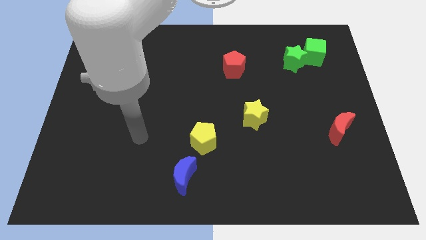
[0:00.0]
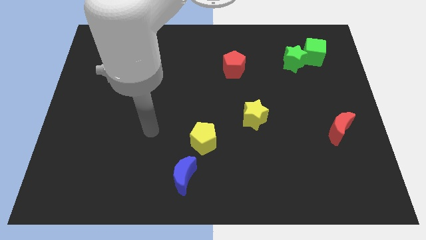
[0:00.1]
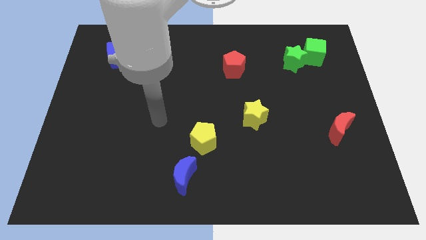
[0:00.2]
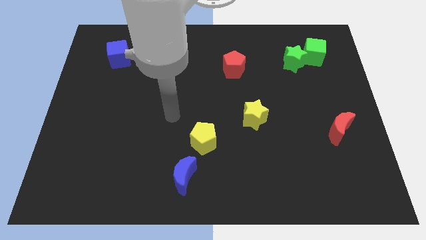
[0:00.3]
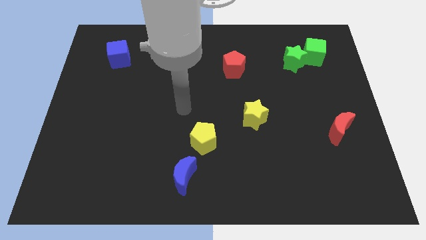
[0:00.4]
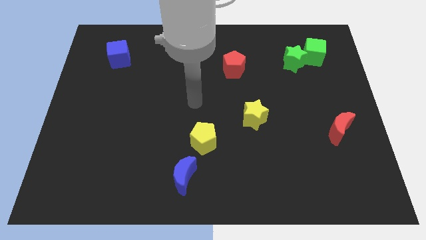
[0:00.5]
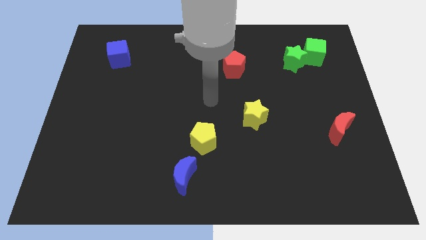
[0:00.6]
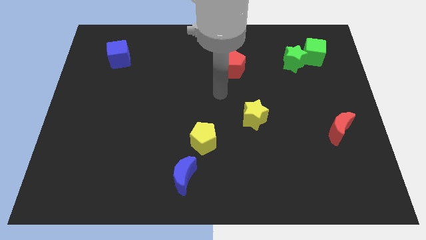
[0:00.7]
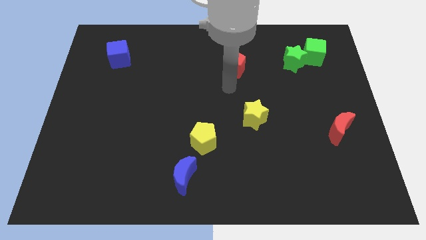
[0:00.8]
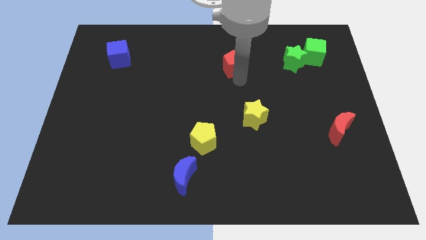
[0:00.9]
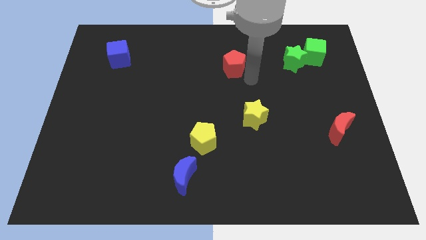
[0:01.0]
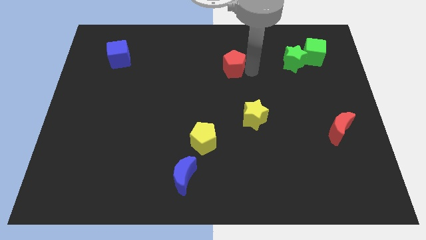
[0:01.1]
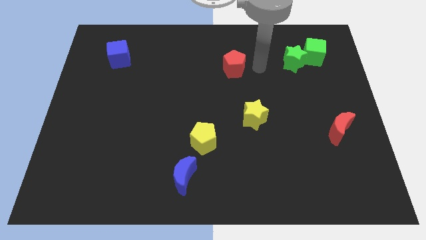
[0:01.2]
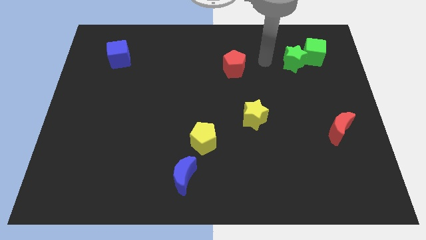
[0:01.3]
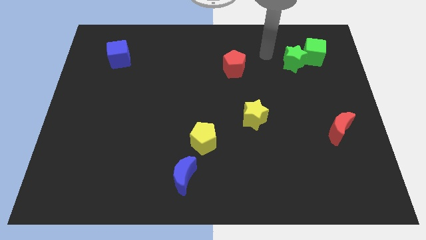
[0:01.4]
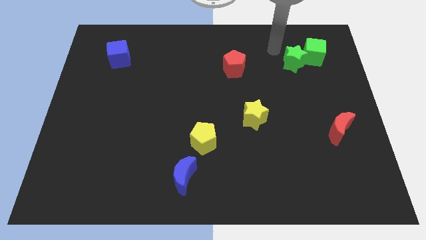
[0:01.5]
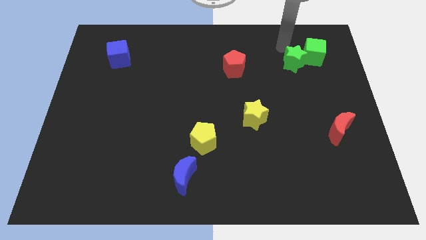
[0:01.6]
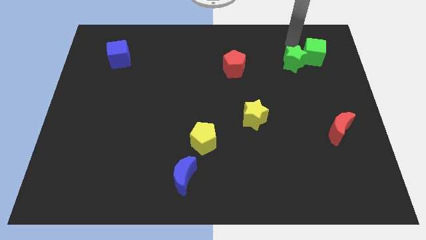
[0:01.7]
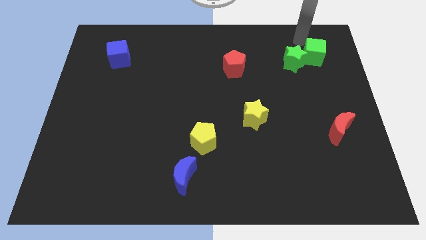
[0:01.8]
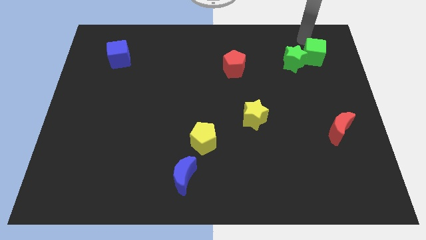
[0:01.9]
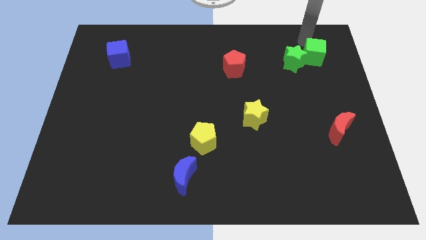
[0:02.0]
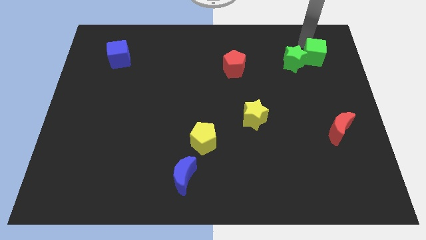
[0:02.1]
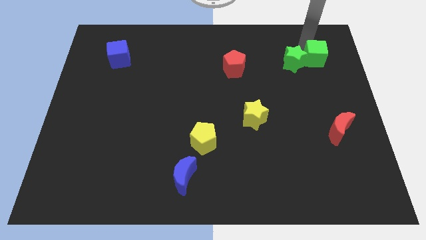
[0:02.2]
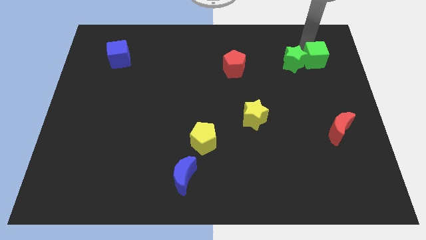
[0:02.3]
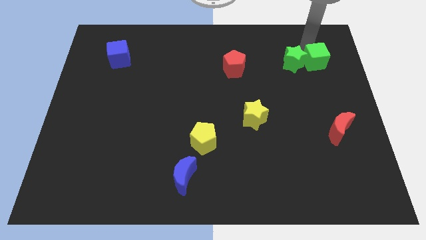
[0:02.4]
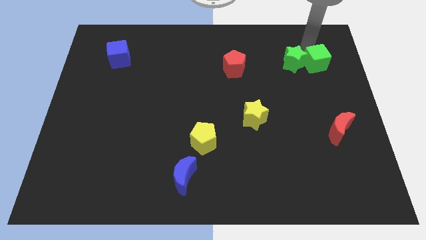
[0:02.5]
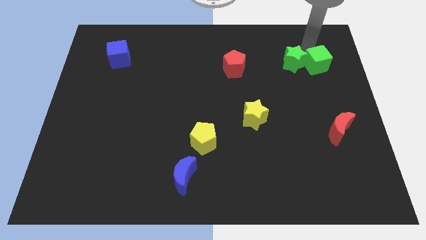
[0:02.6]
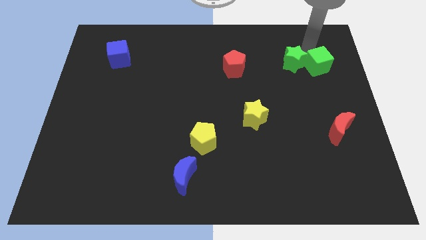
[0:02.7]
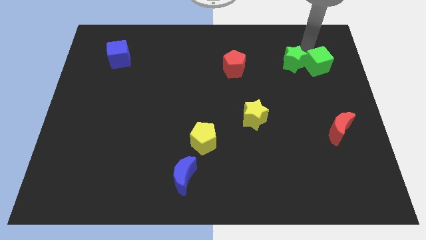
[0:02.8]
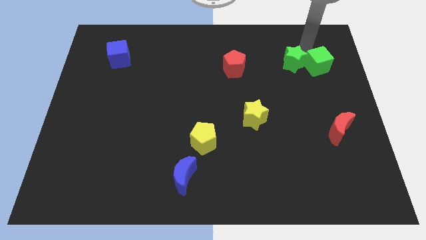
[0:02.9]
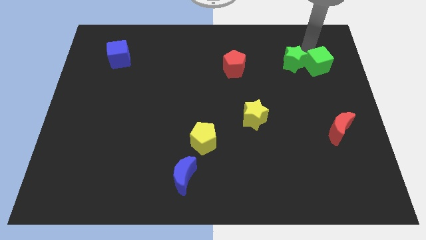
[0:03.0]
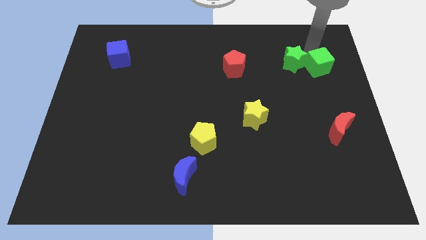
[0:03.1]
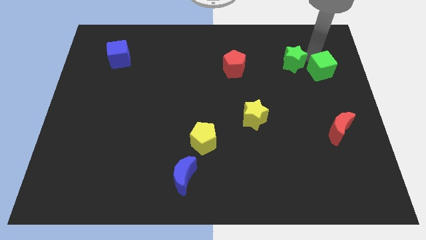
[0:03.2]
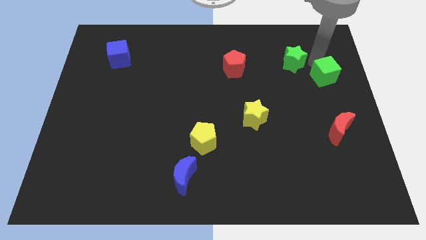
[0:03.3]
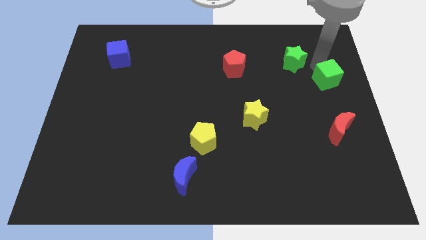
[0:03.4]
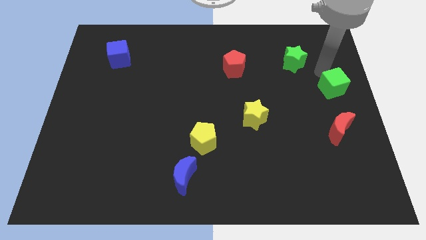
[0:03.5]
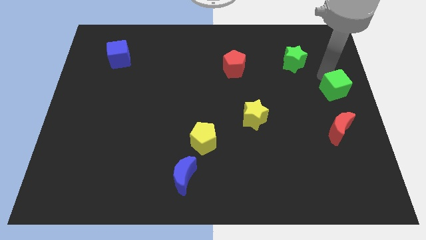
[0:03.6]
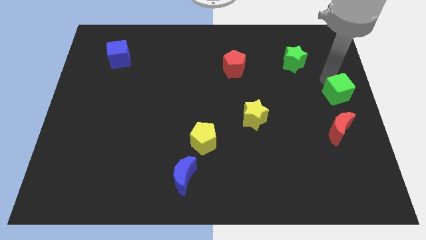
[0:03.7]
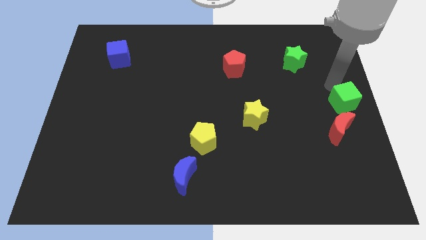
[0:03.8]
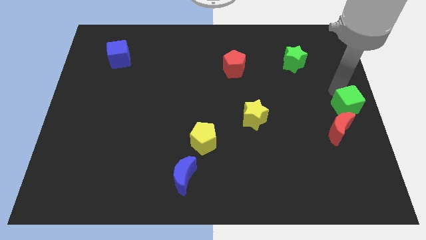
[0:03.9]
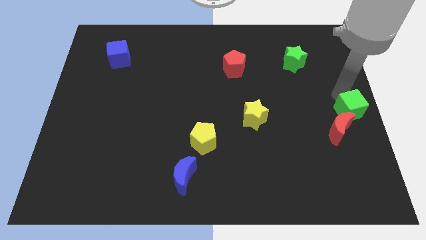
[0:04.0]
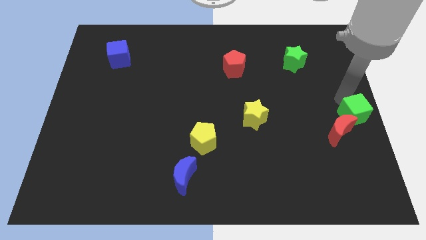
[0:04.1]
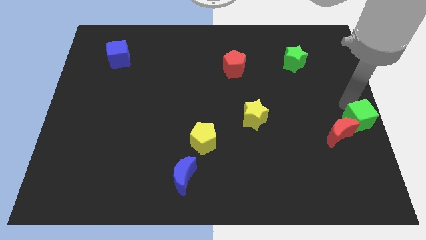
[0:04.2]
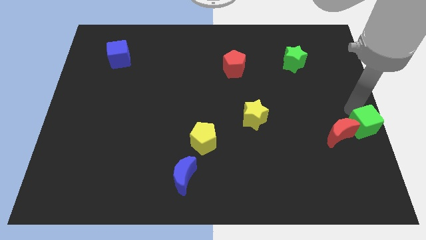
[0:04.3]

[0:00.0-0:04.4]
push the green cube downwards

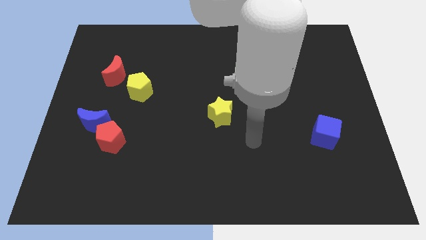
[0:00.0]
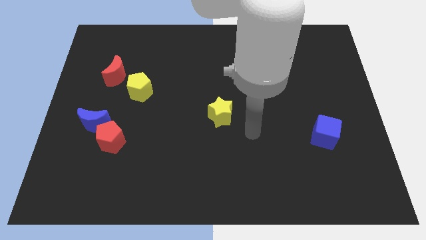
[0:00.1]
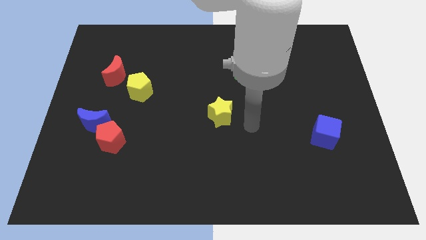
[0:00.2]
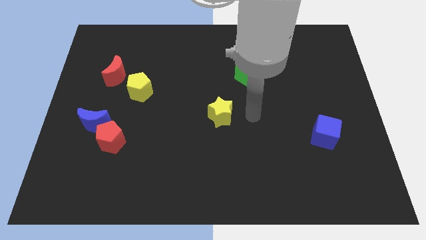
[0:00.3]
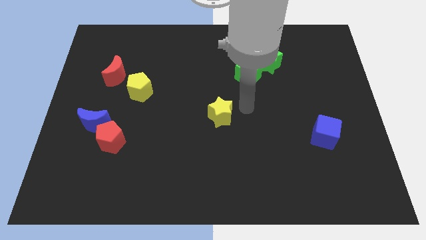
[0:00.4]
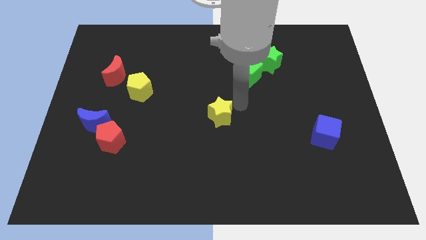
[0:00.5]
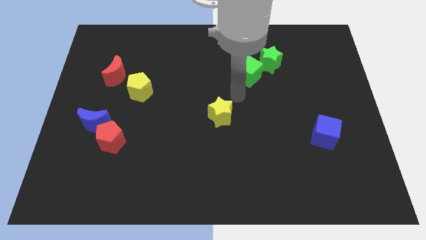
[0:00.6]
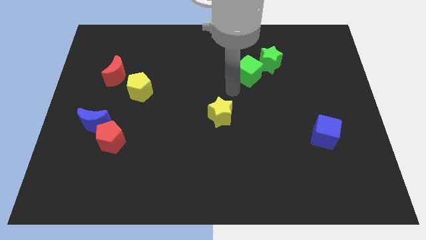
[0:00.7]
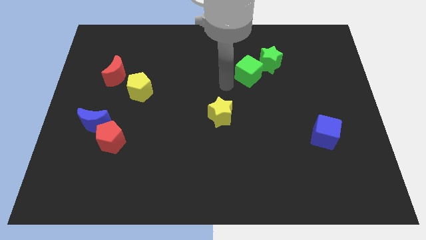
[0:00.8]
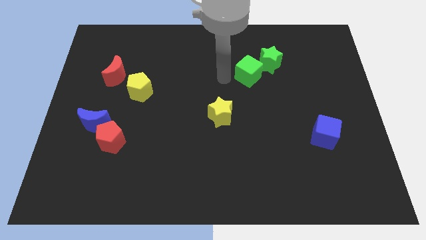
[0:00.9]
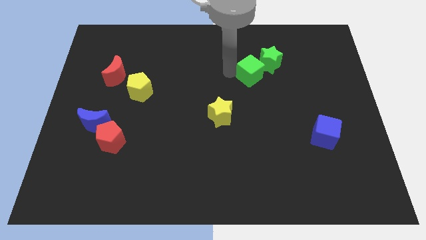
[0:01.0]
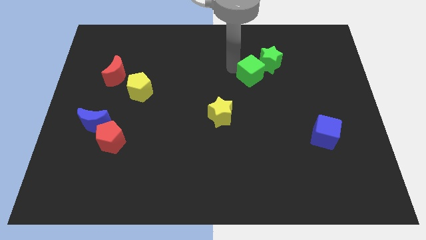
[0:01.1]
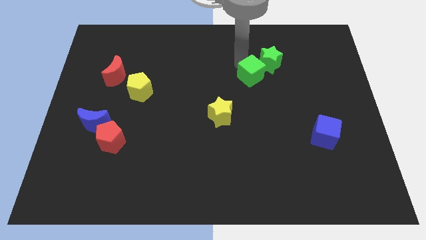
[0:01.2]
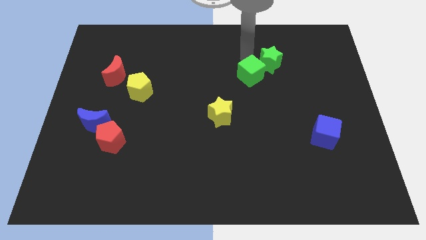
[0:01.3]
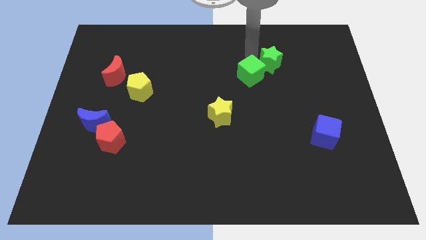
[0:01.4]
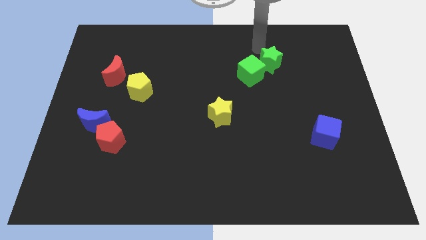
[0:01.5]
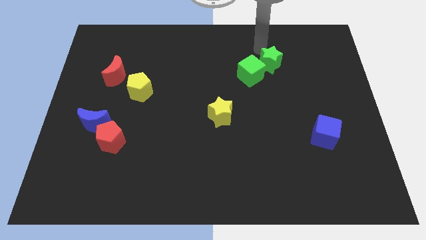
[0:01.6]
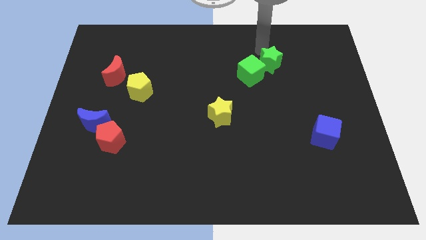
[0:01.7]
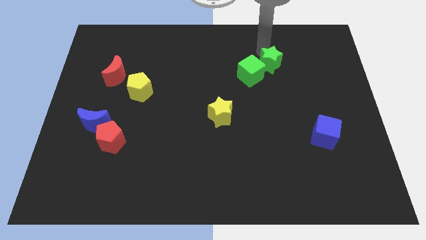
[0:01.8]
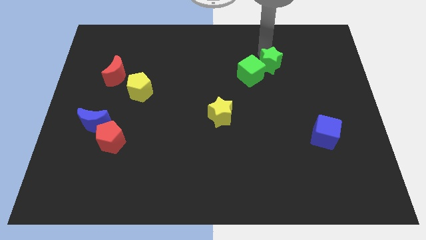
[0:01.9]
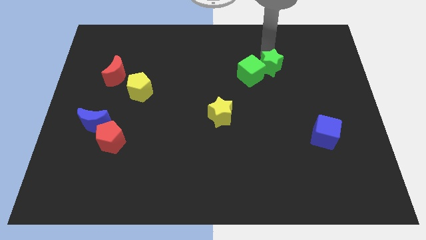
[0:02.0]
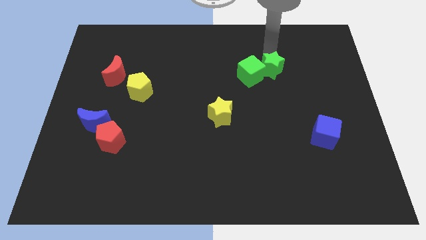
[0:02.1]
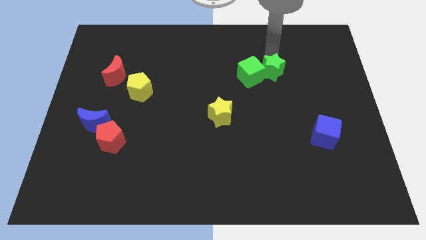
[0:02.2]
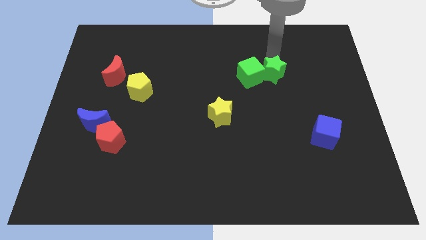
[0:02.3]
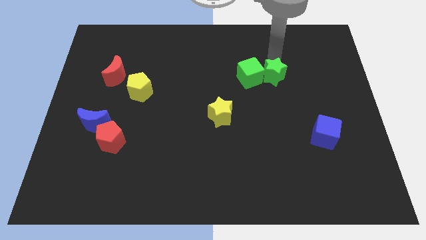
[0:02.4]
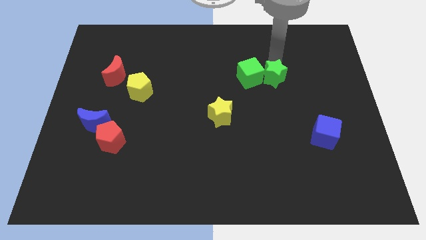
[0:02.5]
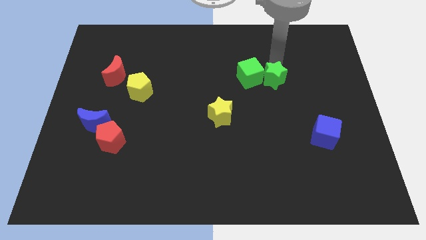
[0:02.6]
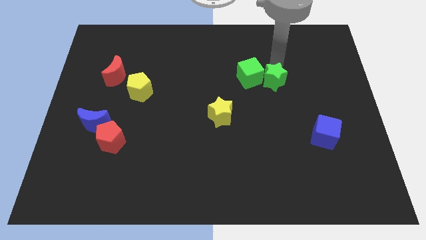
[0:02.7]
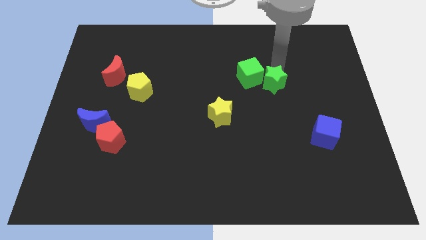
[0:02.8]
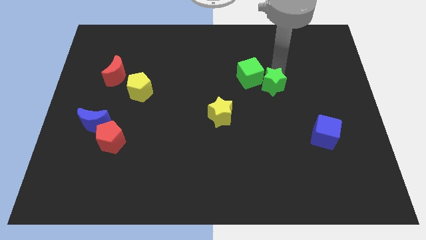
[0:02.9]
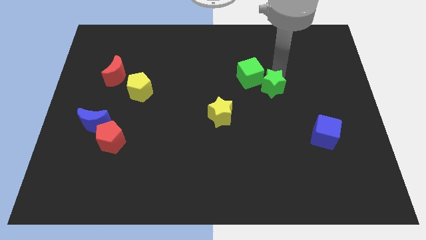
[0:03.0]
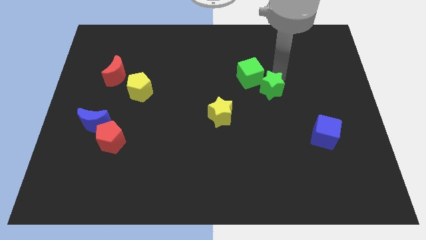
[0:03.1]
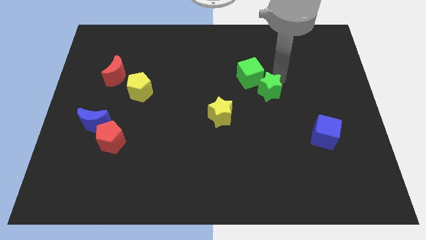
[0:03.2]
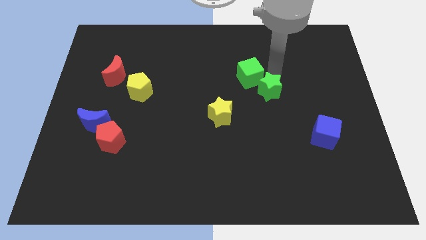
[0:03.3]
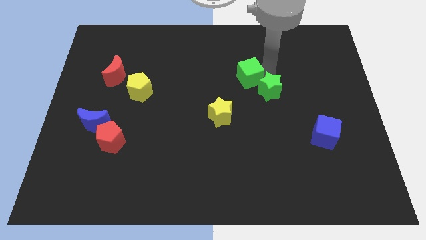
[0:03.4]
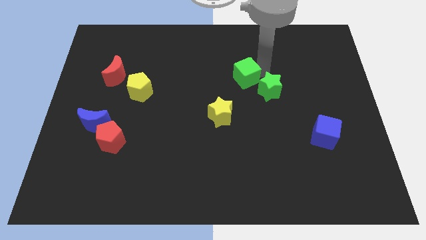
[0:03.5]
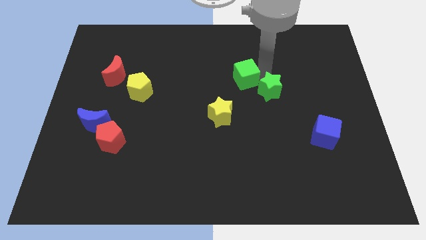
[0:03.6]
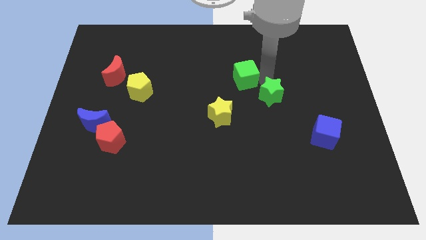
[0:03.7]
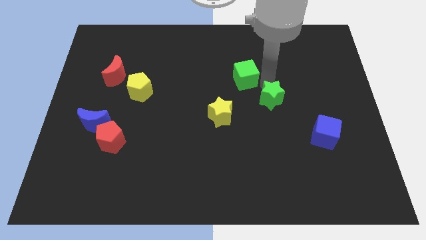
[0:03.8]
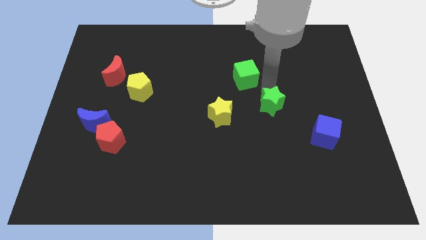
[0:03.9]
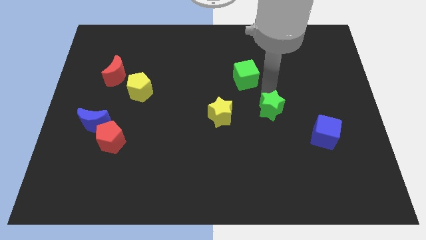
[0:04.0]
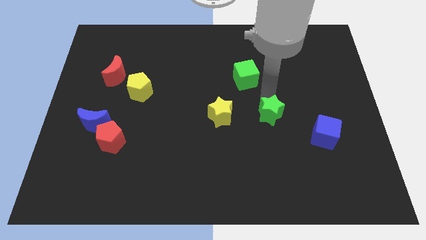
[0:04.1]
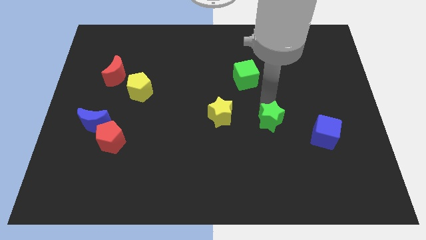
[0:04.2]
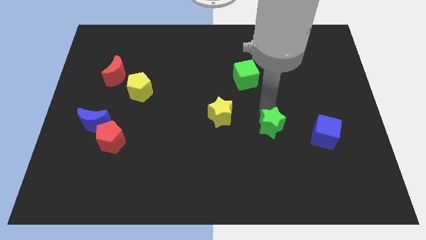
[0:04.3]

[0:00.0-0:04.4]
move the green star down
